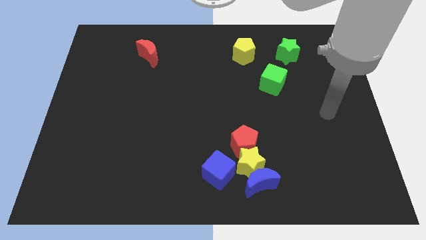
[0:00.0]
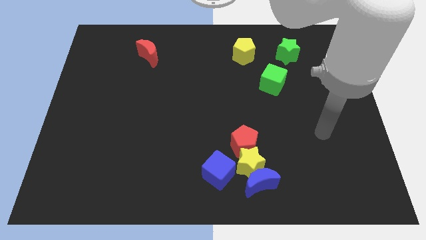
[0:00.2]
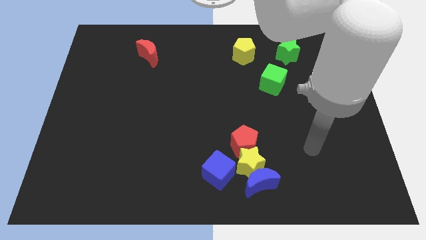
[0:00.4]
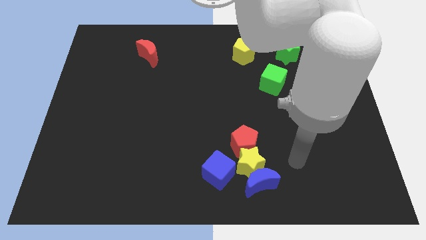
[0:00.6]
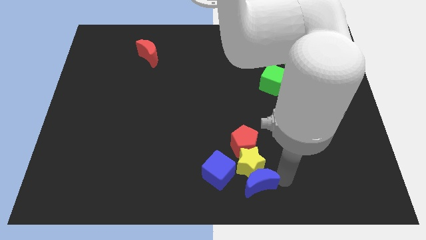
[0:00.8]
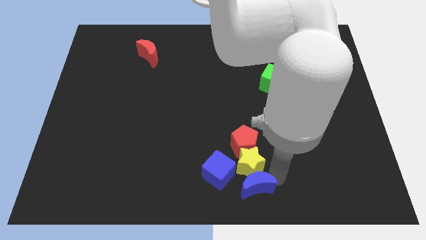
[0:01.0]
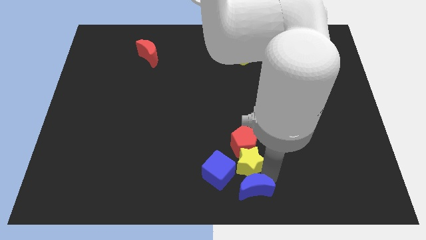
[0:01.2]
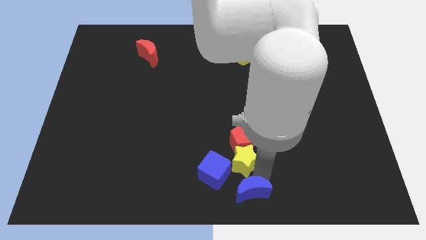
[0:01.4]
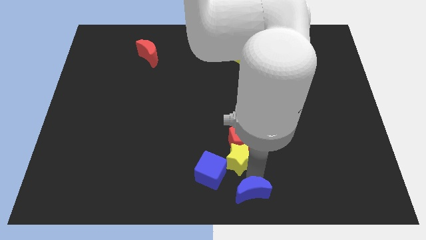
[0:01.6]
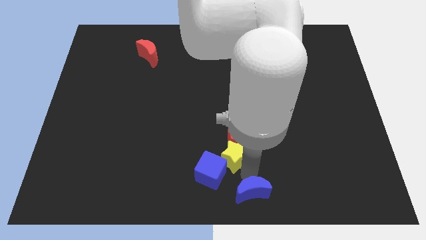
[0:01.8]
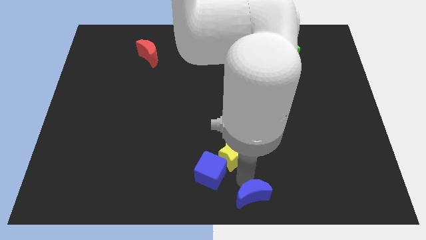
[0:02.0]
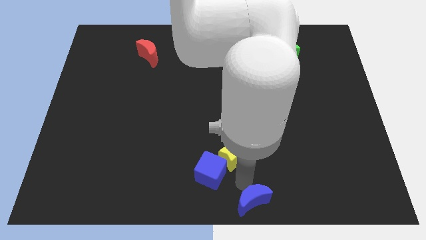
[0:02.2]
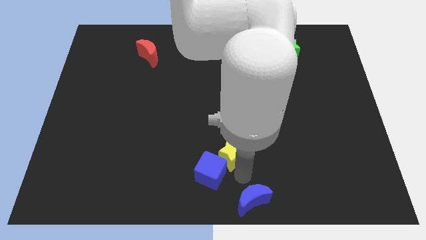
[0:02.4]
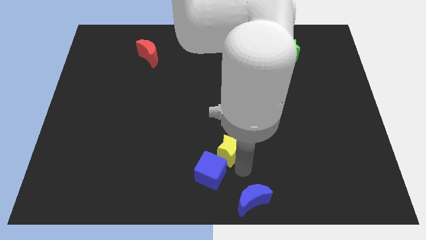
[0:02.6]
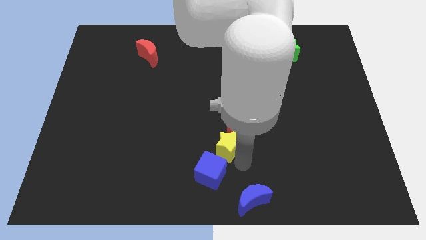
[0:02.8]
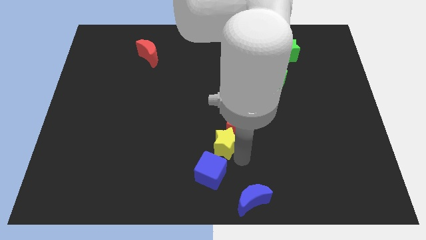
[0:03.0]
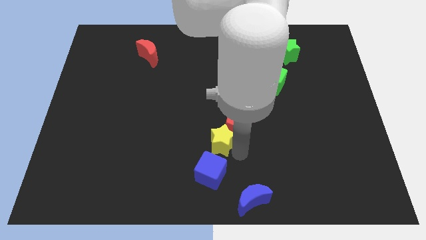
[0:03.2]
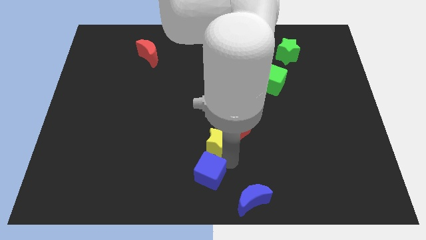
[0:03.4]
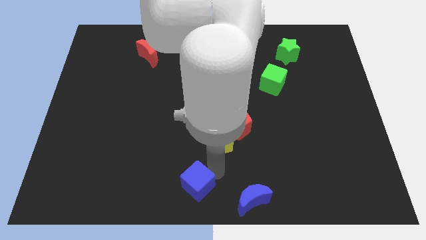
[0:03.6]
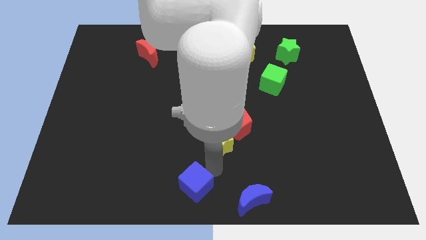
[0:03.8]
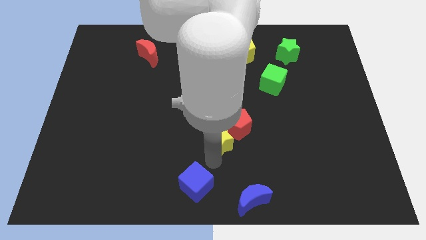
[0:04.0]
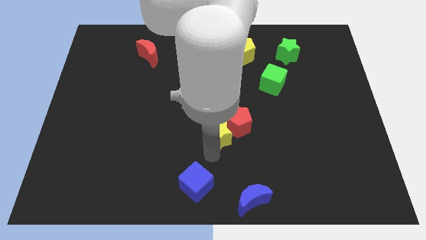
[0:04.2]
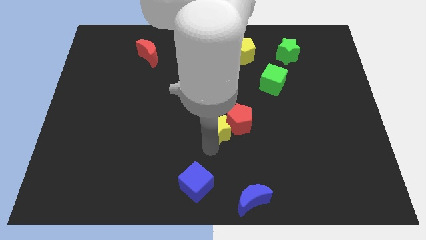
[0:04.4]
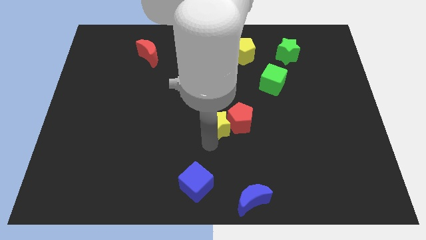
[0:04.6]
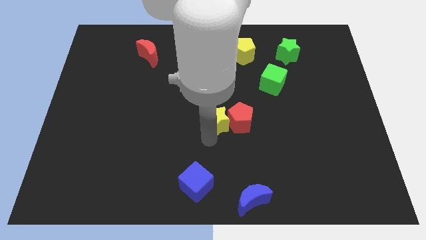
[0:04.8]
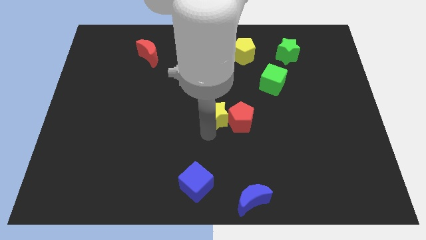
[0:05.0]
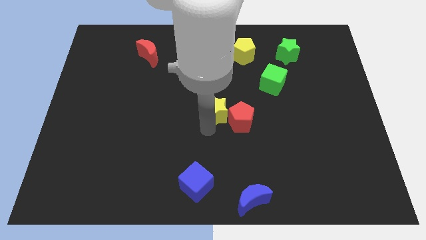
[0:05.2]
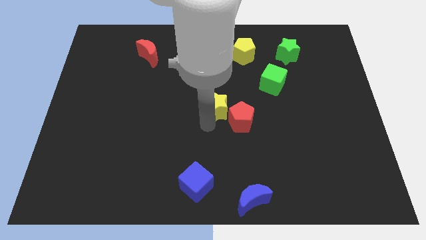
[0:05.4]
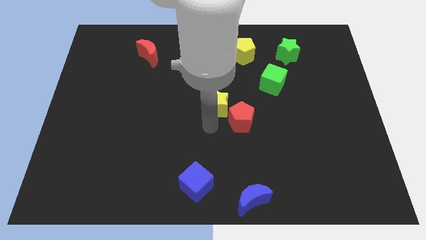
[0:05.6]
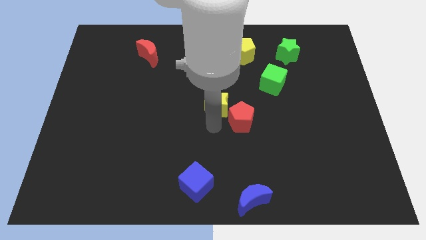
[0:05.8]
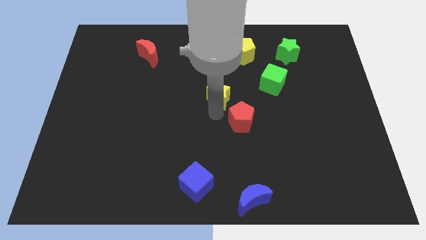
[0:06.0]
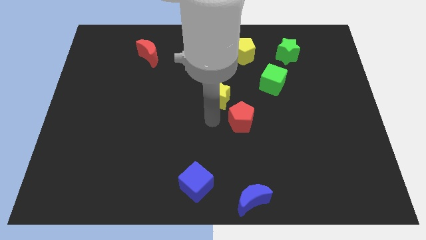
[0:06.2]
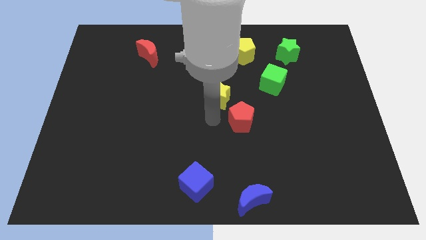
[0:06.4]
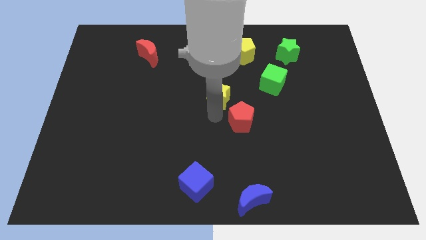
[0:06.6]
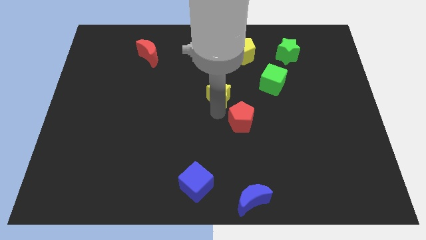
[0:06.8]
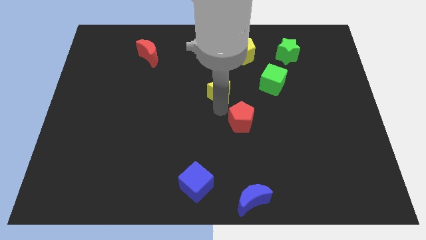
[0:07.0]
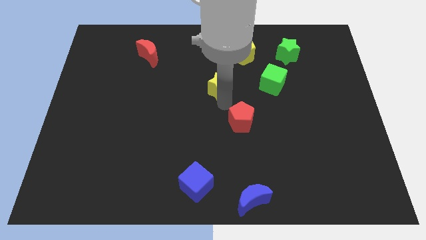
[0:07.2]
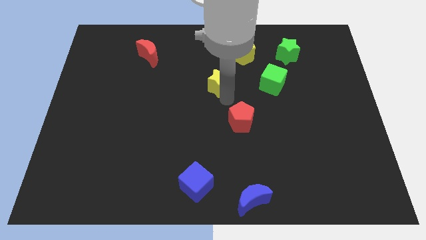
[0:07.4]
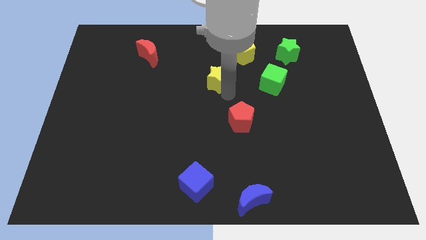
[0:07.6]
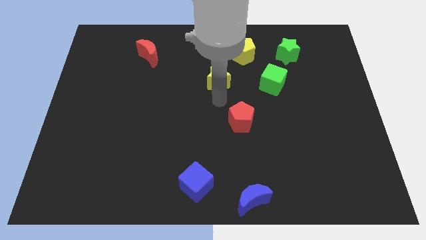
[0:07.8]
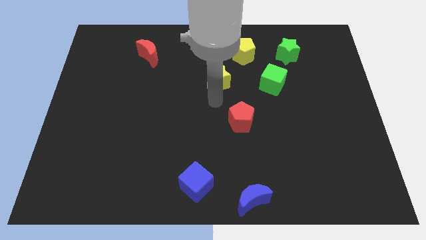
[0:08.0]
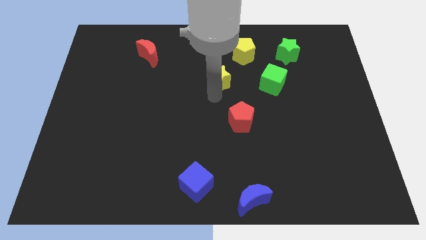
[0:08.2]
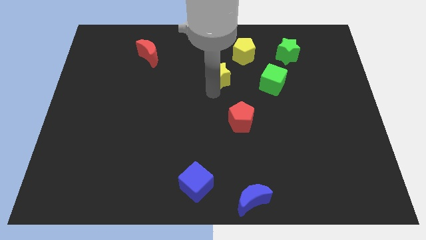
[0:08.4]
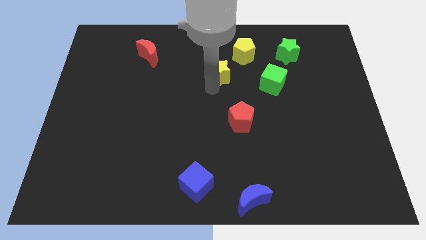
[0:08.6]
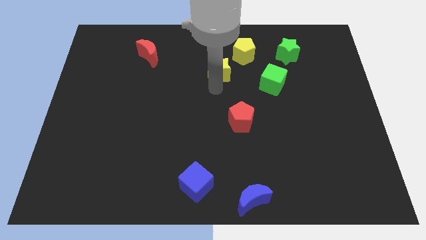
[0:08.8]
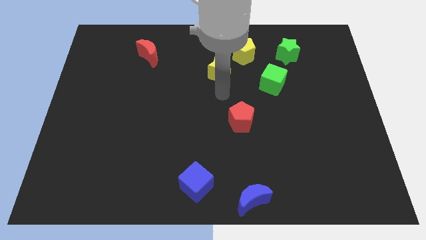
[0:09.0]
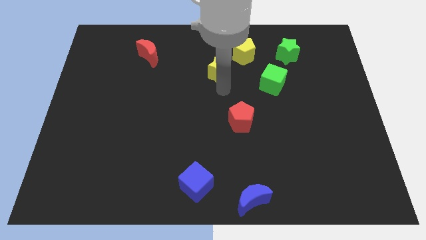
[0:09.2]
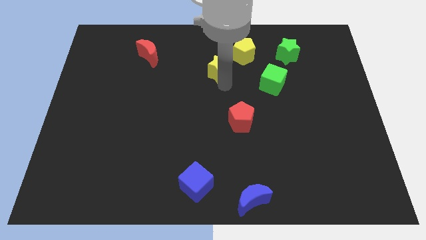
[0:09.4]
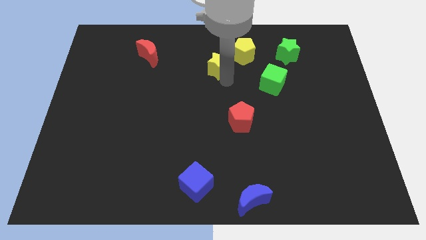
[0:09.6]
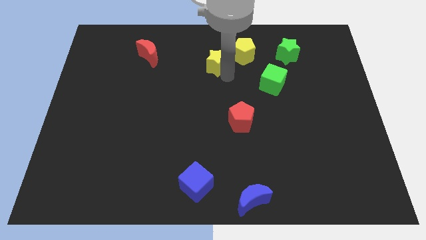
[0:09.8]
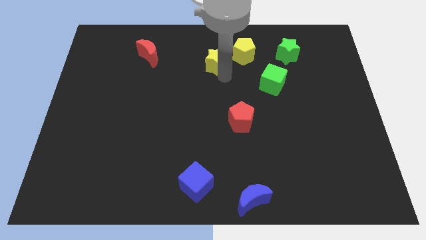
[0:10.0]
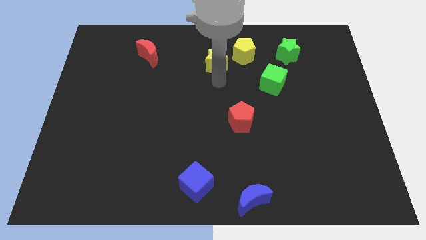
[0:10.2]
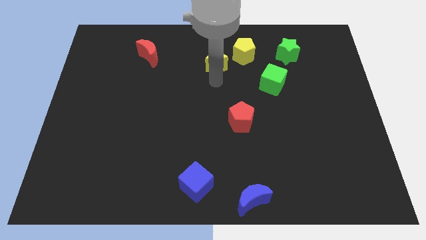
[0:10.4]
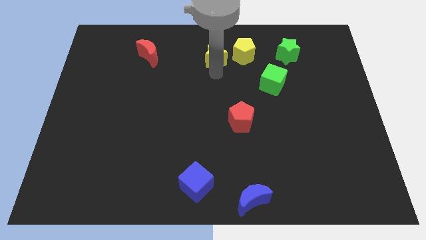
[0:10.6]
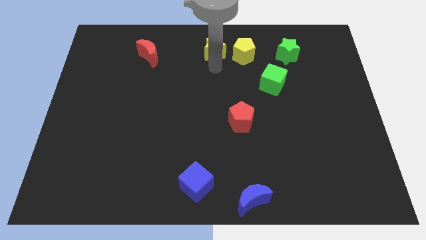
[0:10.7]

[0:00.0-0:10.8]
move the yellow star to the towards your base

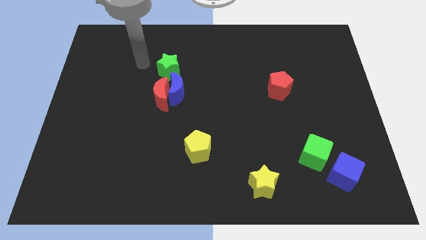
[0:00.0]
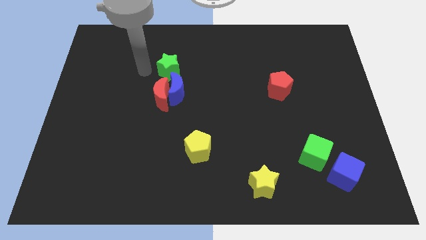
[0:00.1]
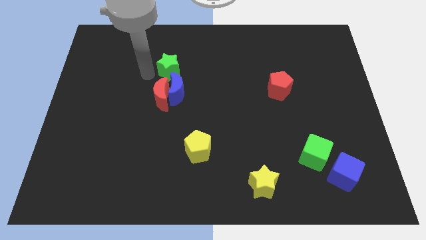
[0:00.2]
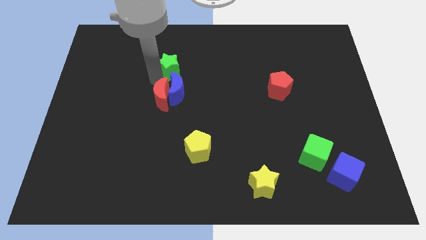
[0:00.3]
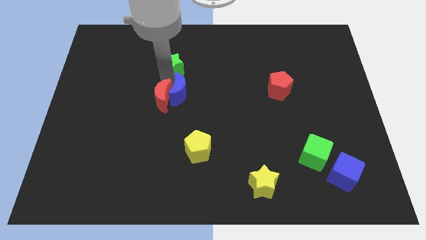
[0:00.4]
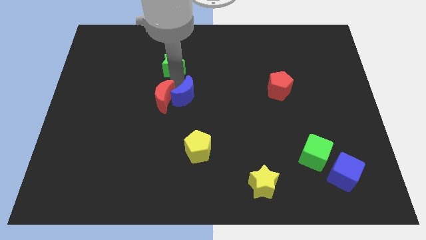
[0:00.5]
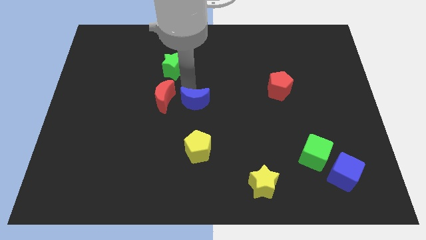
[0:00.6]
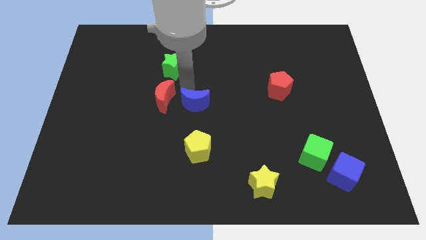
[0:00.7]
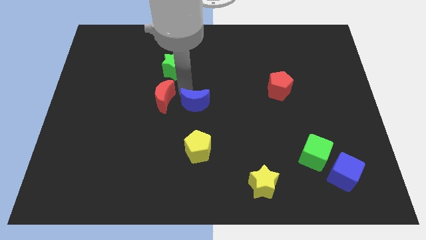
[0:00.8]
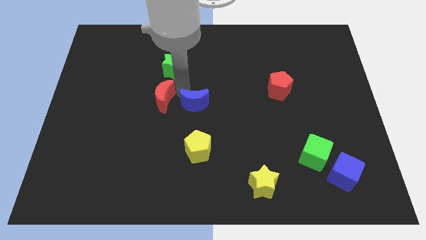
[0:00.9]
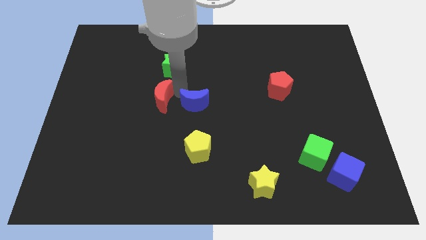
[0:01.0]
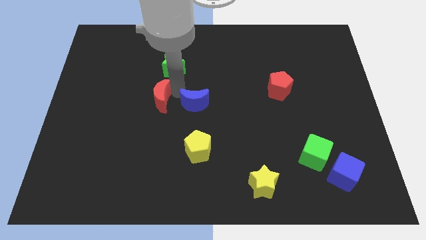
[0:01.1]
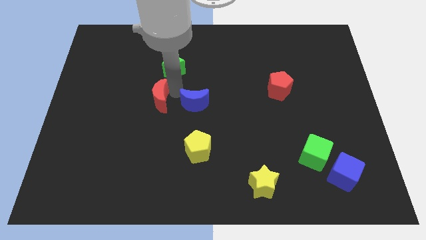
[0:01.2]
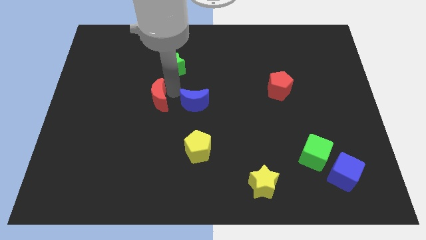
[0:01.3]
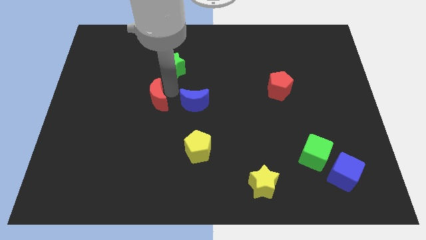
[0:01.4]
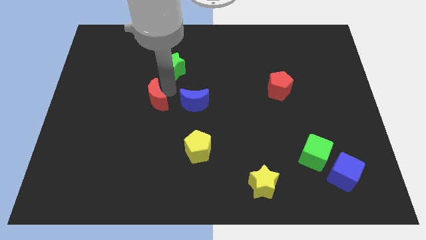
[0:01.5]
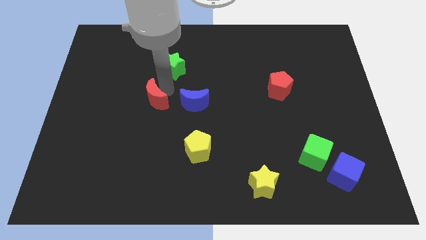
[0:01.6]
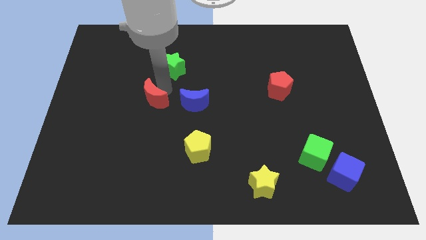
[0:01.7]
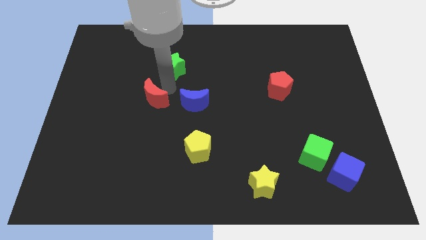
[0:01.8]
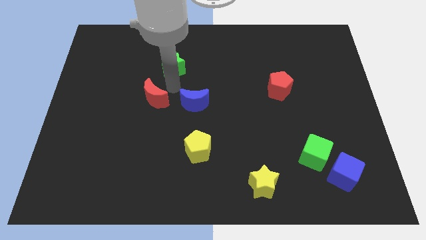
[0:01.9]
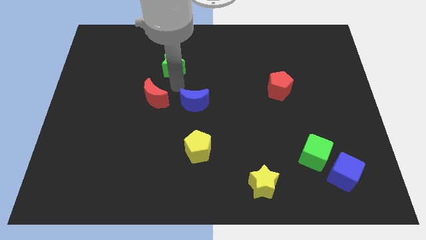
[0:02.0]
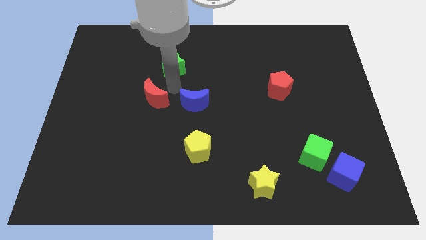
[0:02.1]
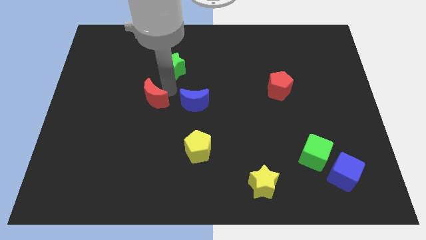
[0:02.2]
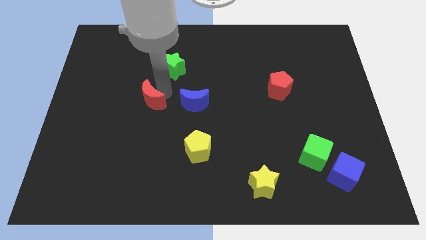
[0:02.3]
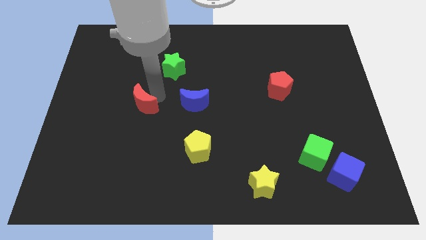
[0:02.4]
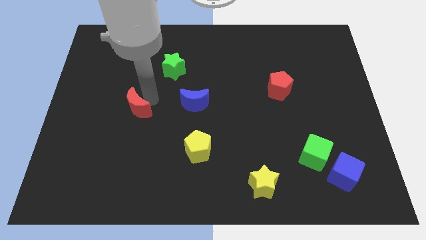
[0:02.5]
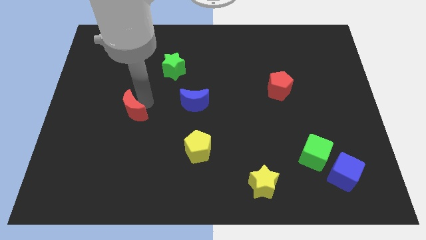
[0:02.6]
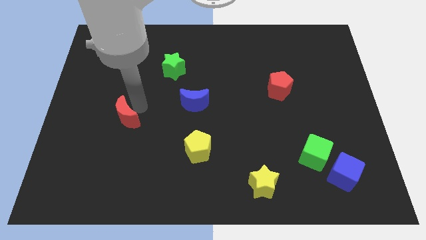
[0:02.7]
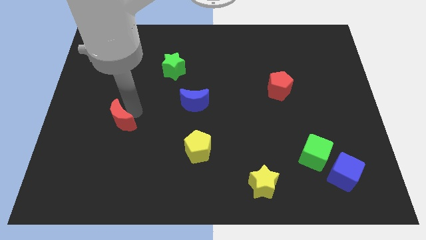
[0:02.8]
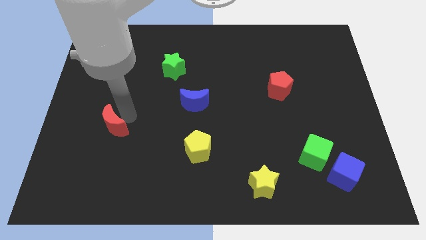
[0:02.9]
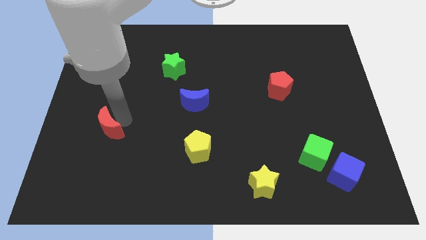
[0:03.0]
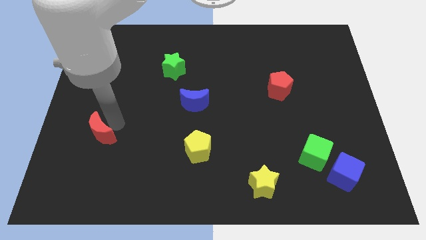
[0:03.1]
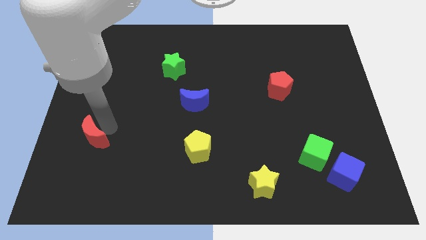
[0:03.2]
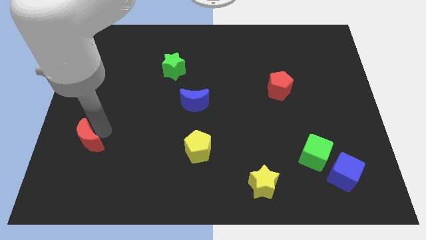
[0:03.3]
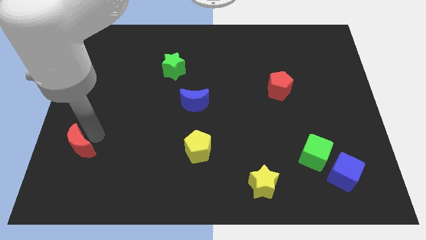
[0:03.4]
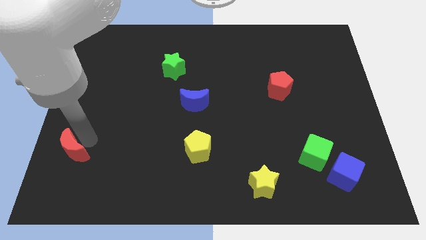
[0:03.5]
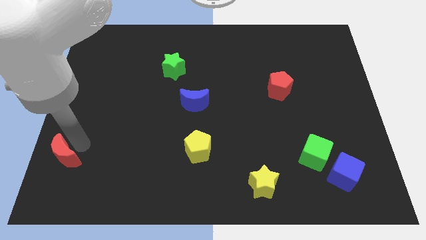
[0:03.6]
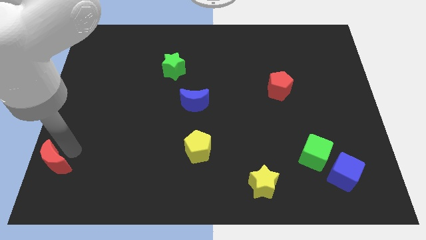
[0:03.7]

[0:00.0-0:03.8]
put the red moon to the bottom left corner
